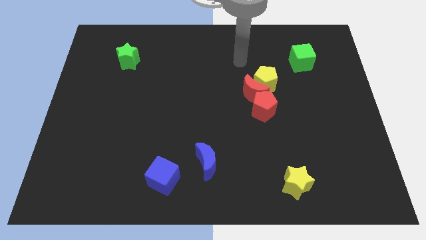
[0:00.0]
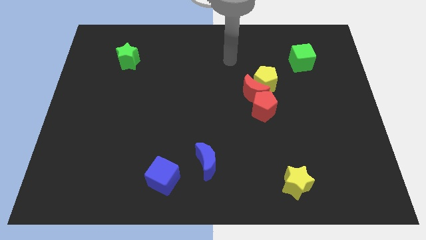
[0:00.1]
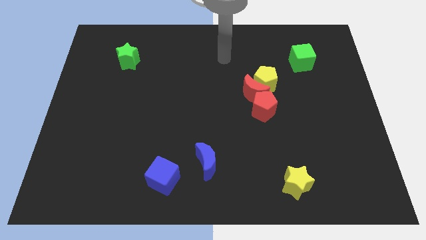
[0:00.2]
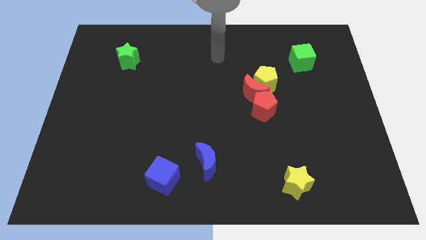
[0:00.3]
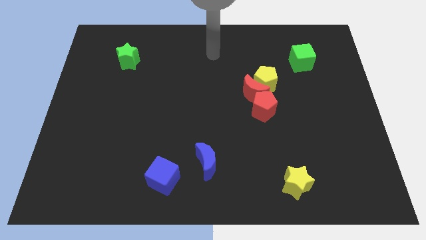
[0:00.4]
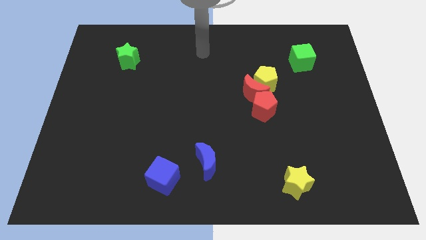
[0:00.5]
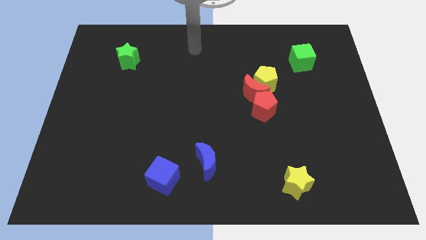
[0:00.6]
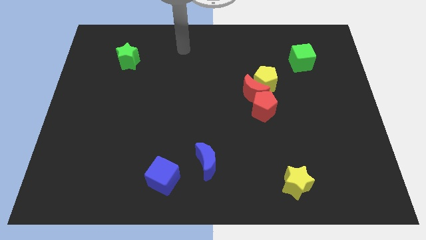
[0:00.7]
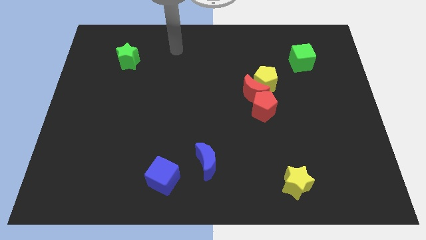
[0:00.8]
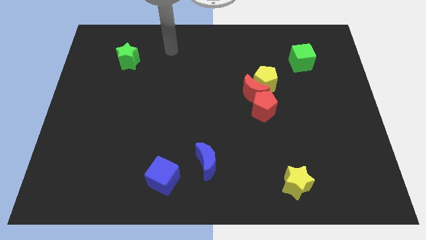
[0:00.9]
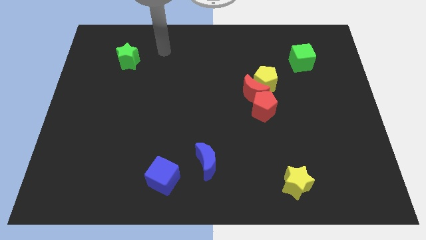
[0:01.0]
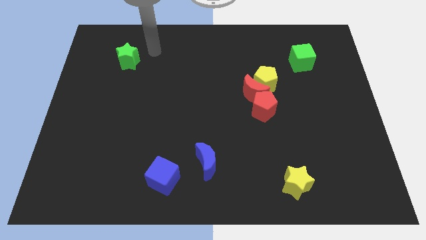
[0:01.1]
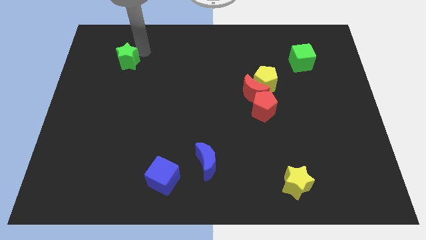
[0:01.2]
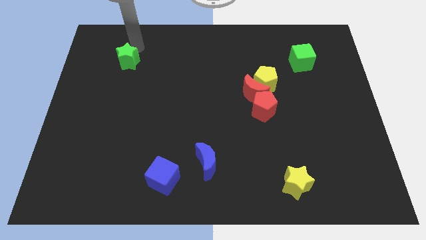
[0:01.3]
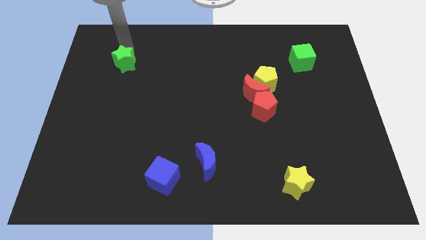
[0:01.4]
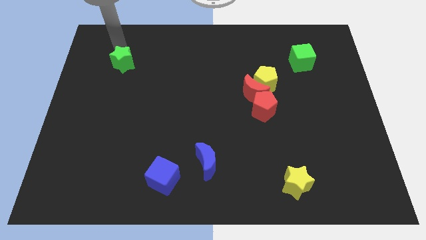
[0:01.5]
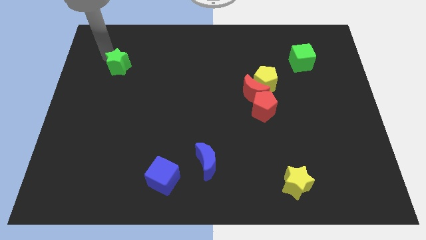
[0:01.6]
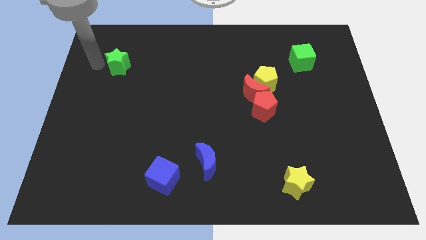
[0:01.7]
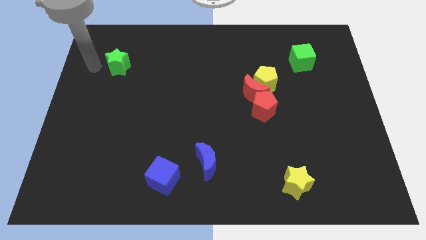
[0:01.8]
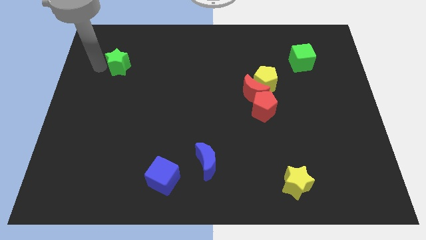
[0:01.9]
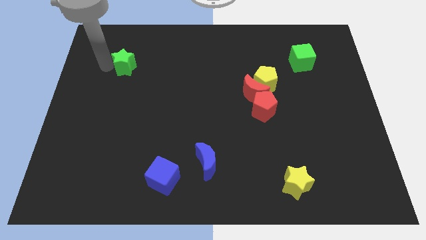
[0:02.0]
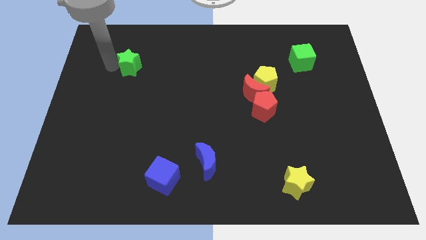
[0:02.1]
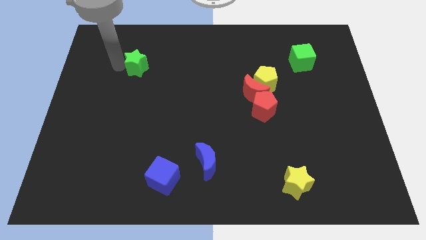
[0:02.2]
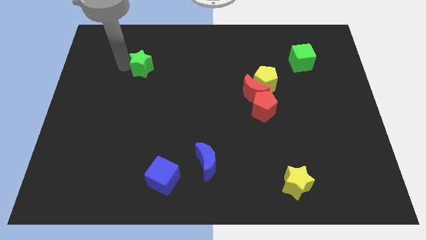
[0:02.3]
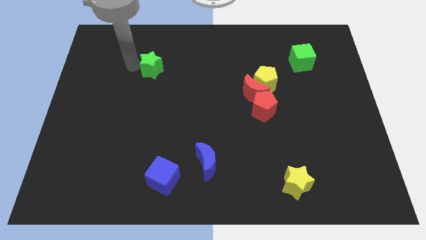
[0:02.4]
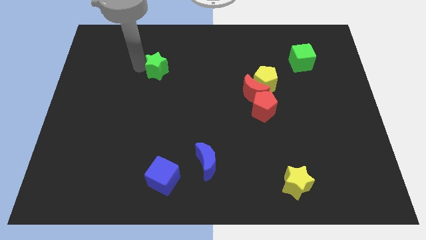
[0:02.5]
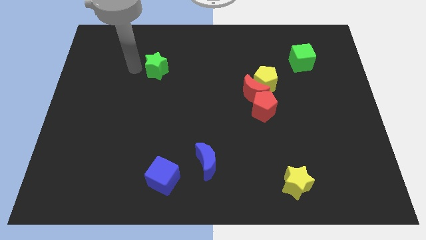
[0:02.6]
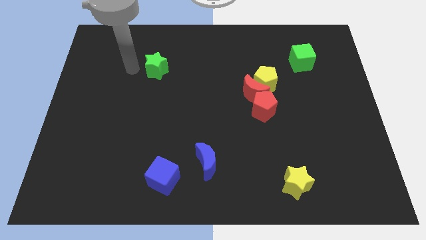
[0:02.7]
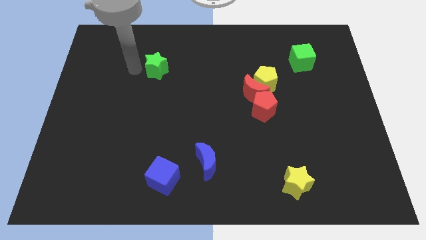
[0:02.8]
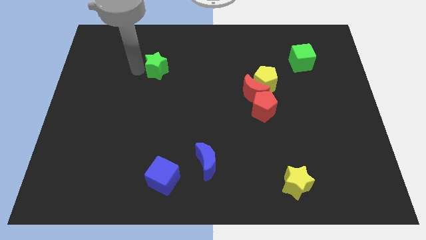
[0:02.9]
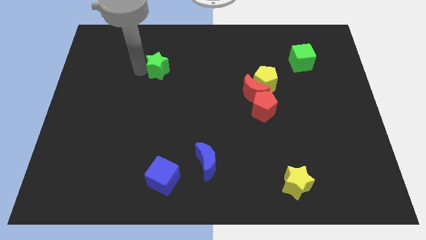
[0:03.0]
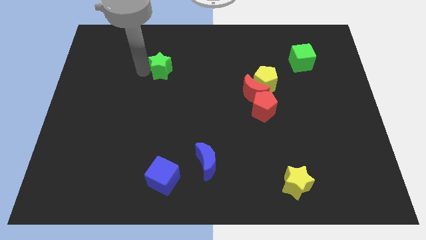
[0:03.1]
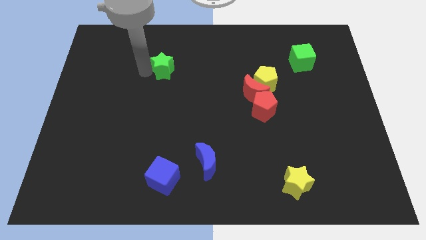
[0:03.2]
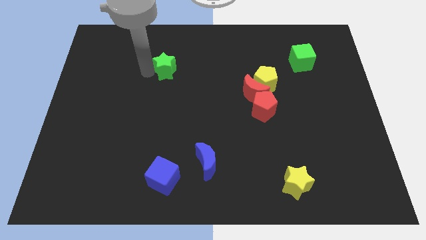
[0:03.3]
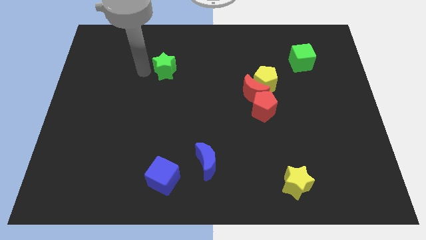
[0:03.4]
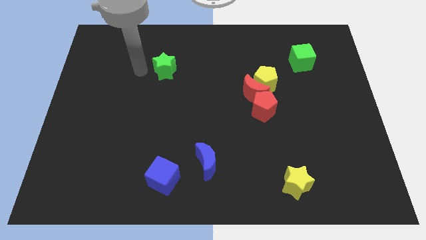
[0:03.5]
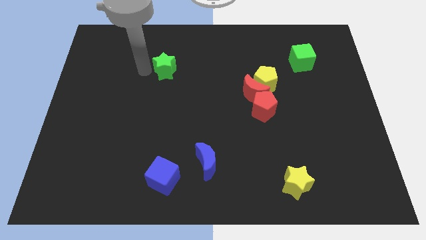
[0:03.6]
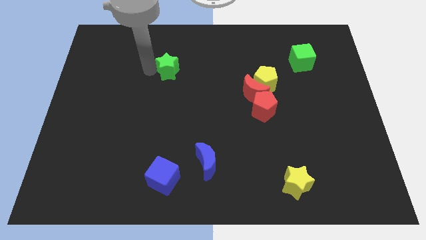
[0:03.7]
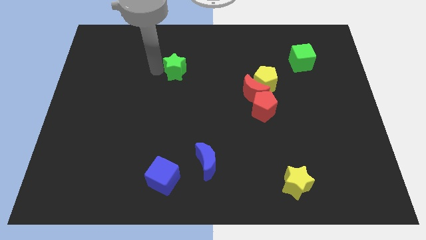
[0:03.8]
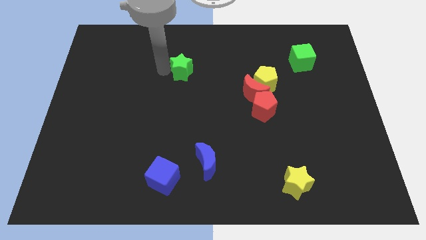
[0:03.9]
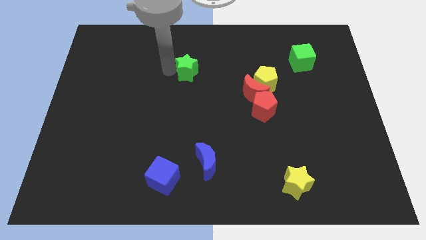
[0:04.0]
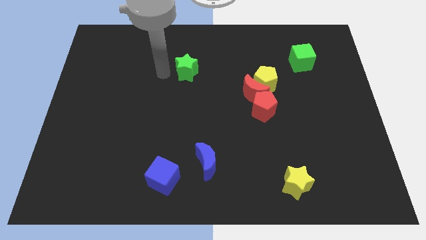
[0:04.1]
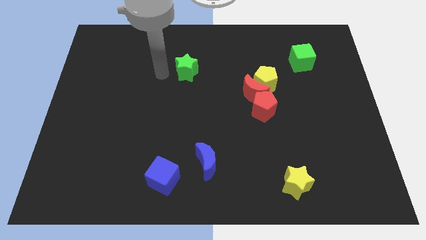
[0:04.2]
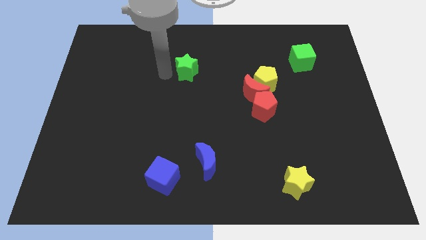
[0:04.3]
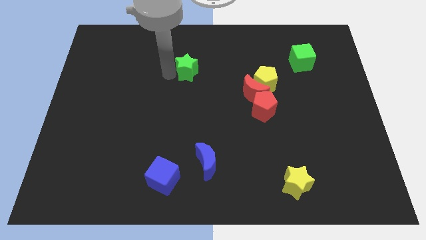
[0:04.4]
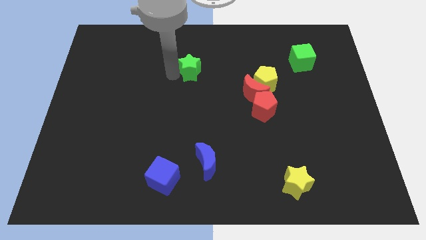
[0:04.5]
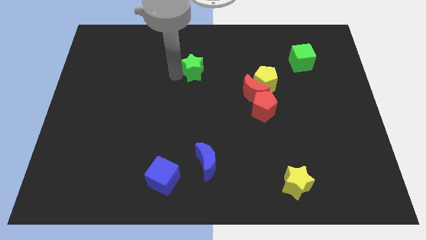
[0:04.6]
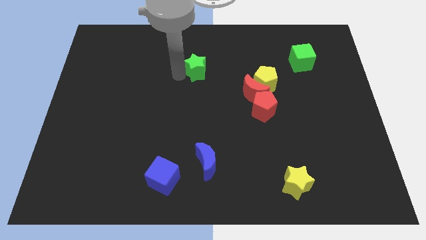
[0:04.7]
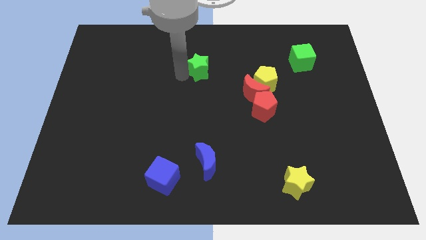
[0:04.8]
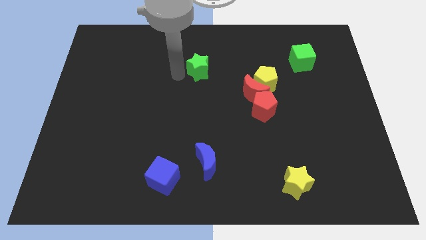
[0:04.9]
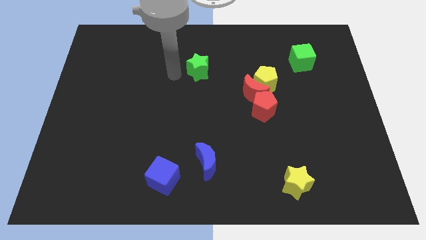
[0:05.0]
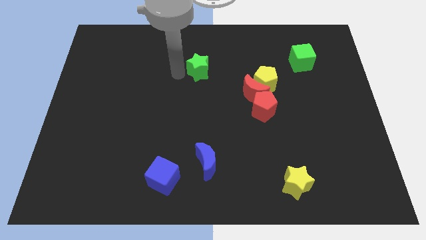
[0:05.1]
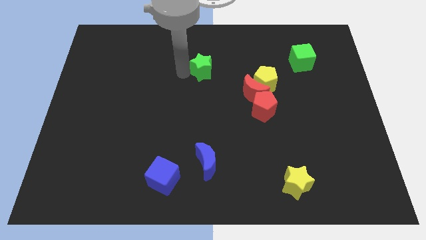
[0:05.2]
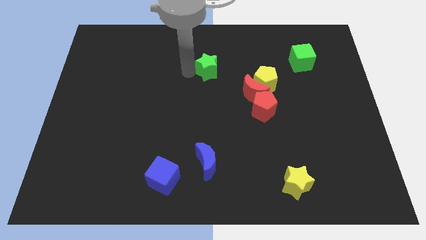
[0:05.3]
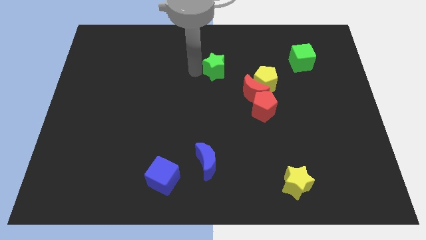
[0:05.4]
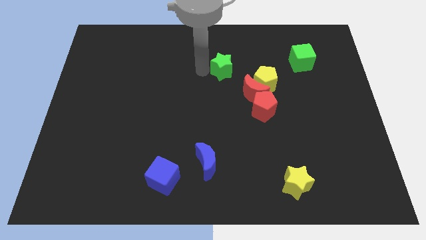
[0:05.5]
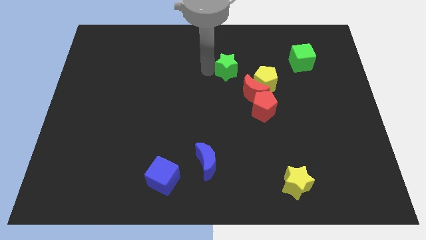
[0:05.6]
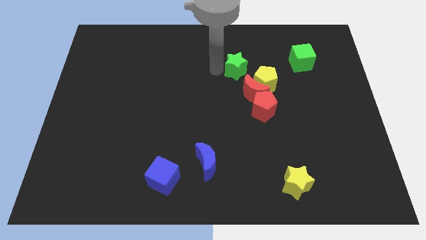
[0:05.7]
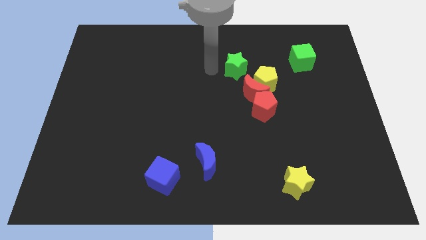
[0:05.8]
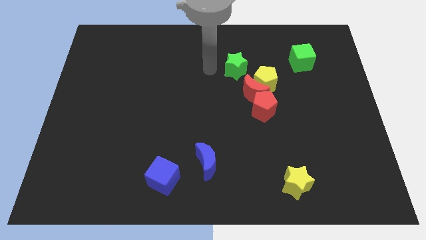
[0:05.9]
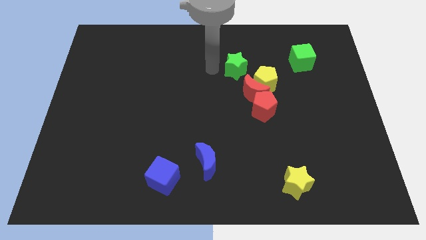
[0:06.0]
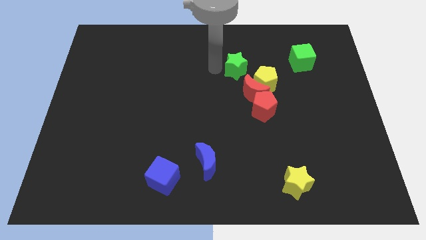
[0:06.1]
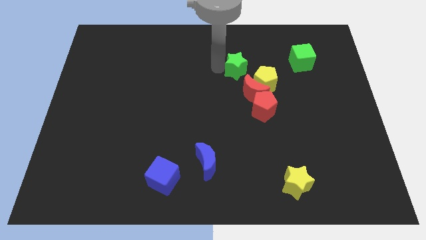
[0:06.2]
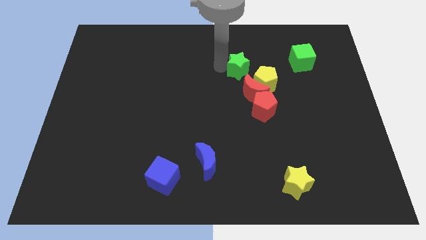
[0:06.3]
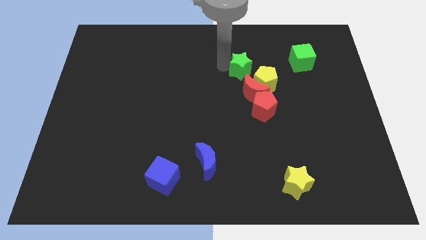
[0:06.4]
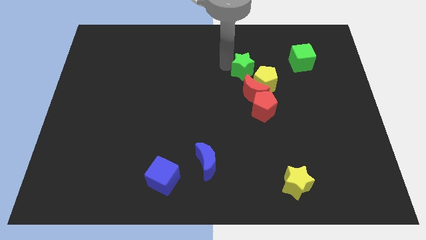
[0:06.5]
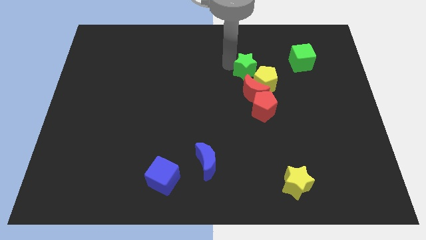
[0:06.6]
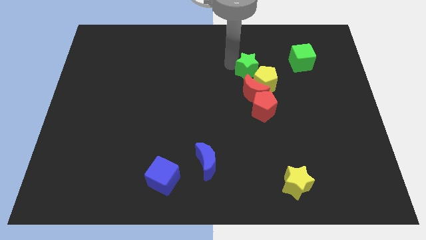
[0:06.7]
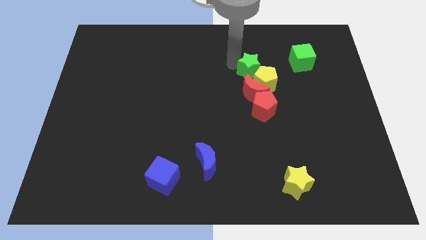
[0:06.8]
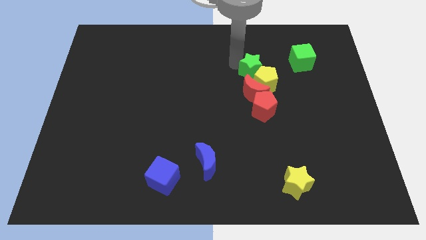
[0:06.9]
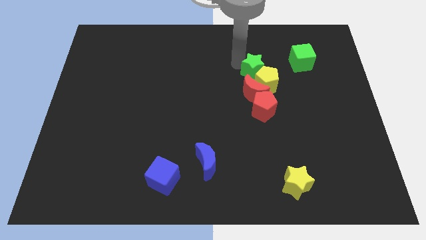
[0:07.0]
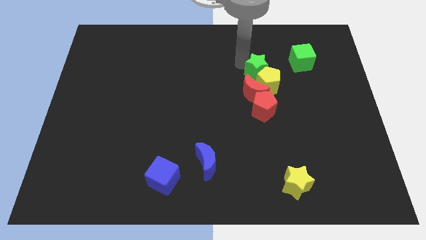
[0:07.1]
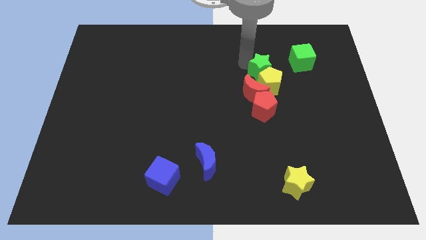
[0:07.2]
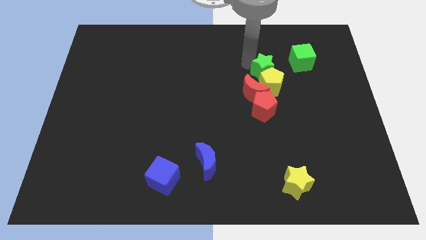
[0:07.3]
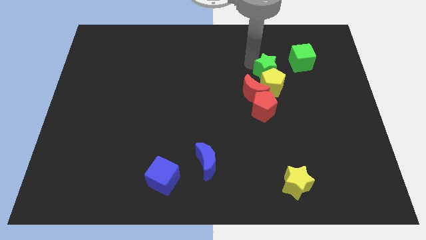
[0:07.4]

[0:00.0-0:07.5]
put the green star to the top right side of the yellow pentagon
